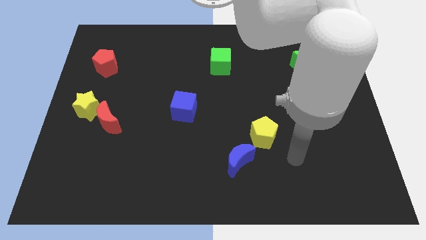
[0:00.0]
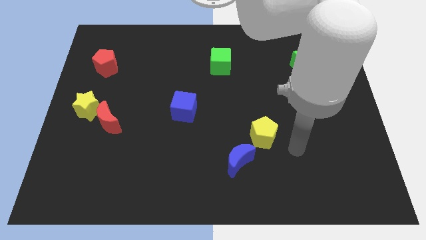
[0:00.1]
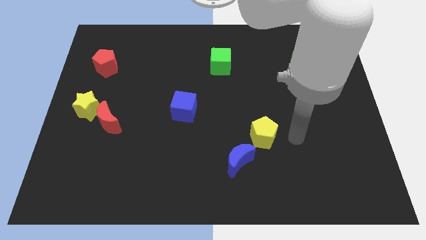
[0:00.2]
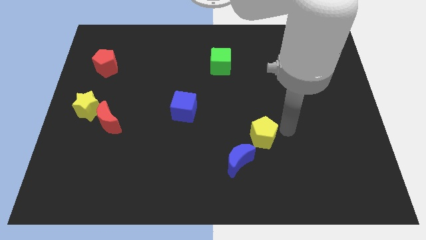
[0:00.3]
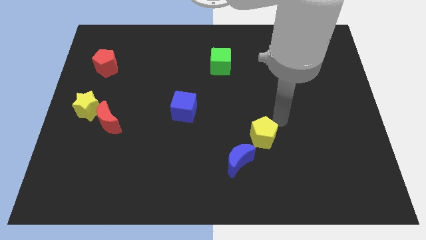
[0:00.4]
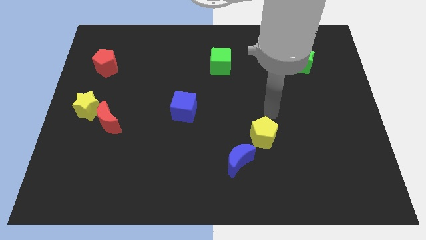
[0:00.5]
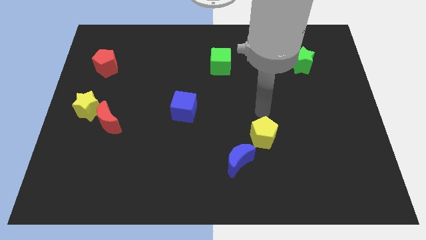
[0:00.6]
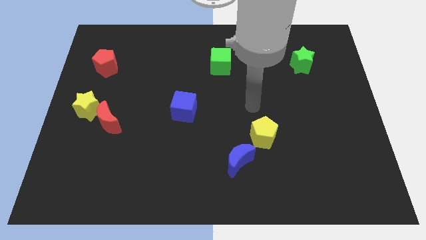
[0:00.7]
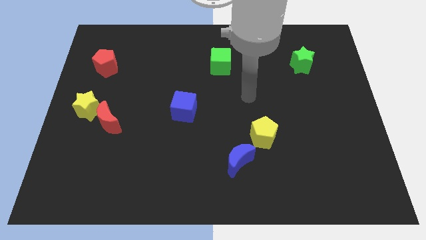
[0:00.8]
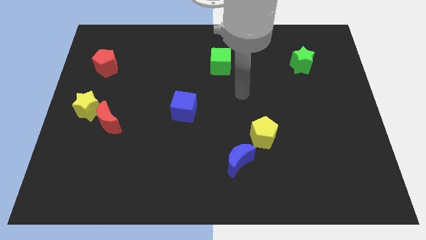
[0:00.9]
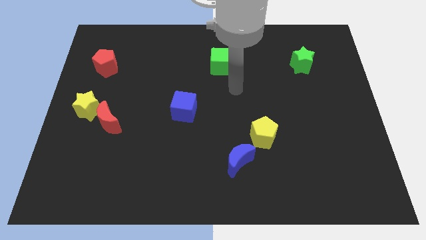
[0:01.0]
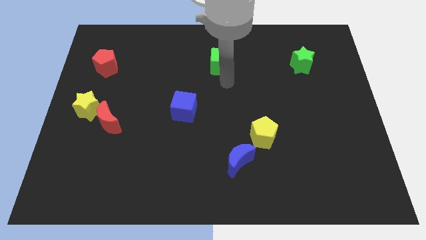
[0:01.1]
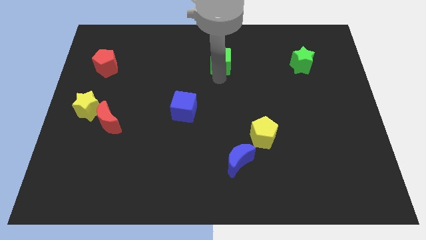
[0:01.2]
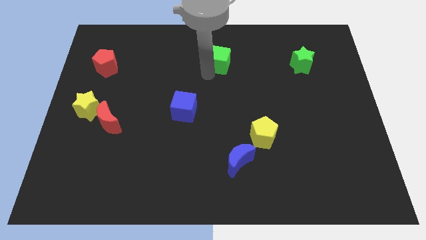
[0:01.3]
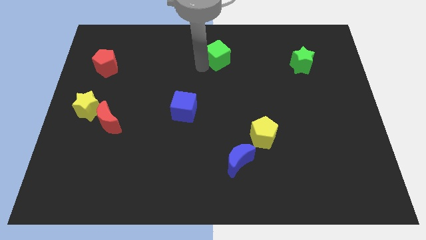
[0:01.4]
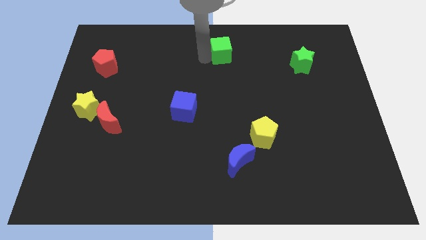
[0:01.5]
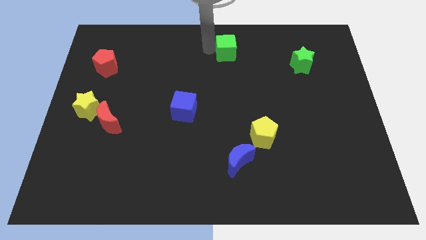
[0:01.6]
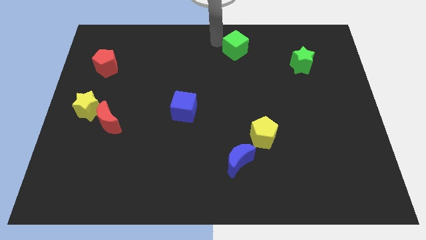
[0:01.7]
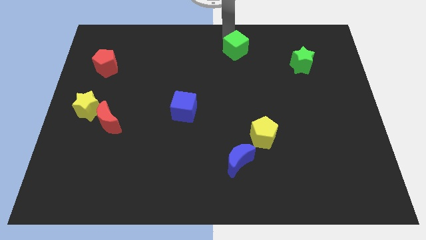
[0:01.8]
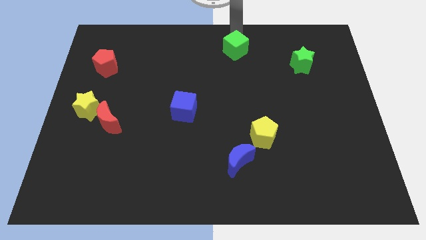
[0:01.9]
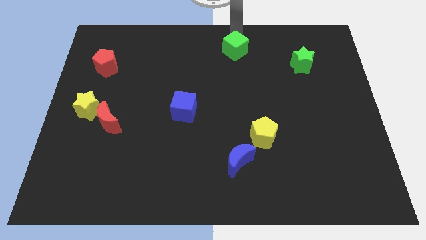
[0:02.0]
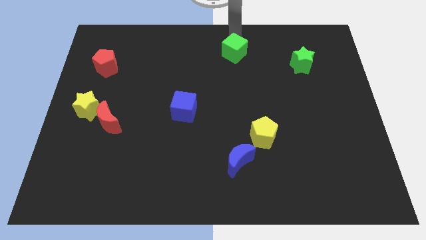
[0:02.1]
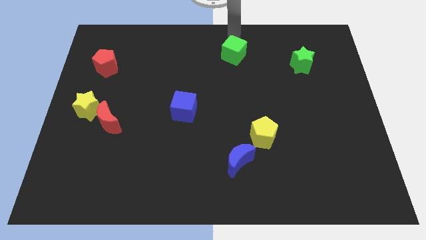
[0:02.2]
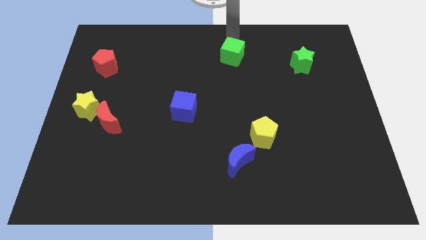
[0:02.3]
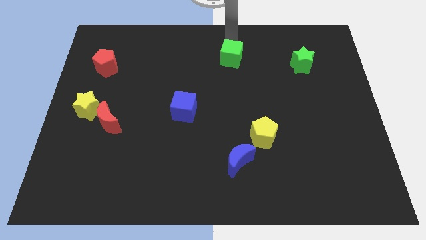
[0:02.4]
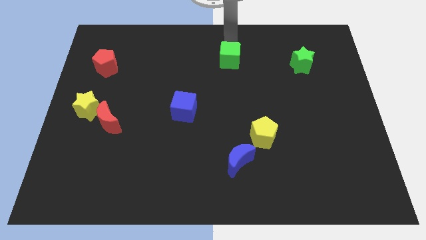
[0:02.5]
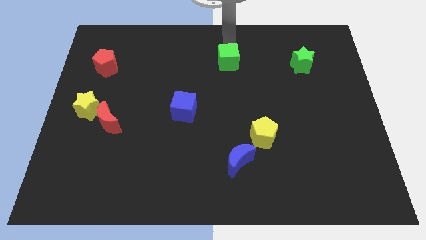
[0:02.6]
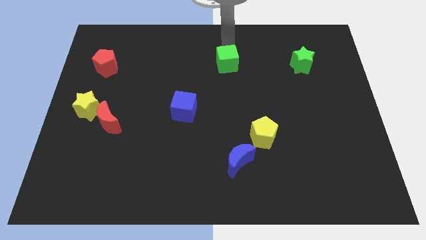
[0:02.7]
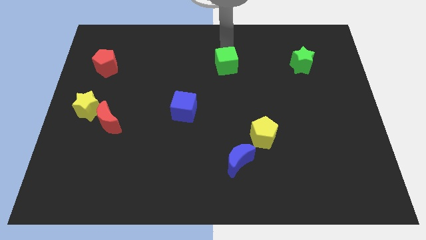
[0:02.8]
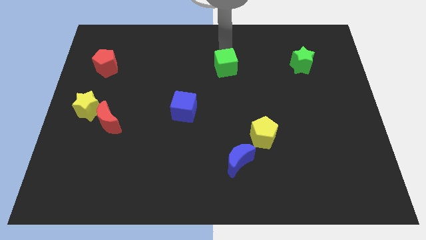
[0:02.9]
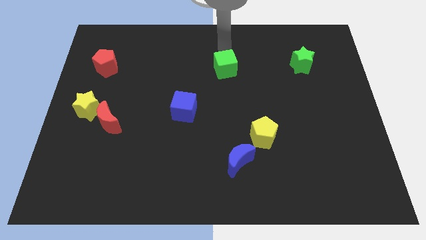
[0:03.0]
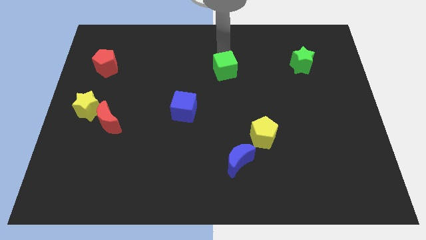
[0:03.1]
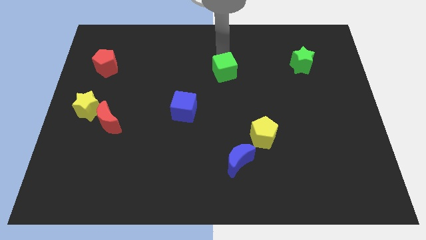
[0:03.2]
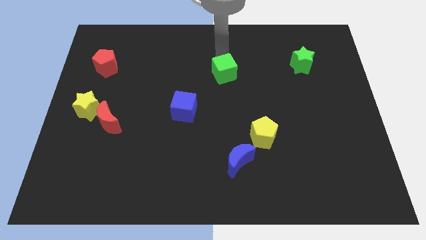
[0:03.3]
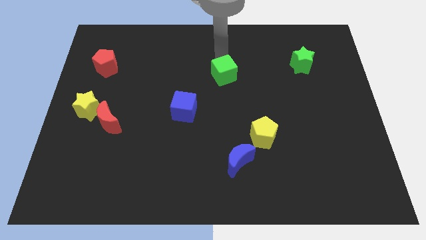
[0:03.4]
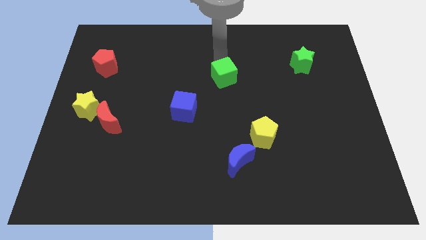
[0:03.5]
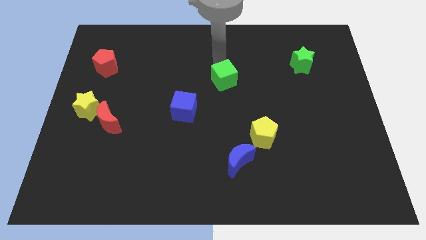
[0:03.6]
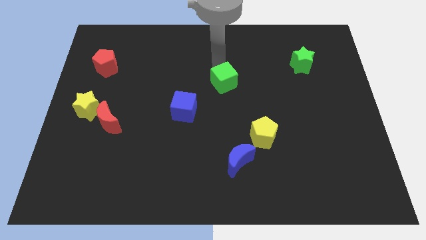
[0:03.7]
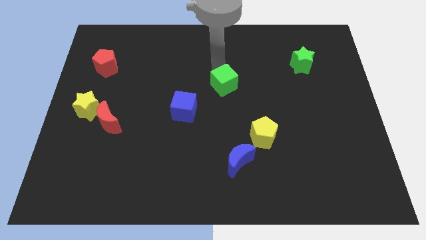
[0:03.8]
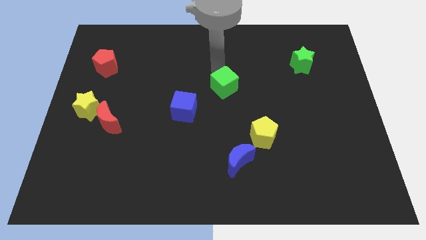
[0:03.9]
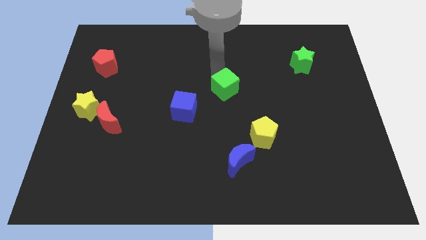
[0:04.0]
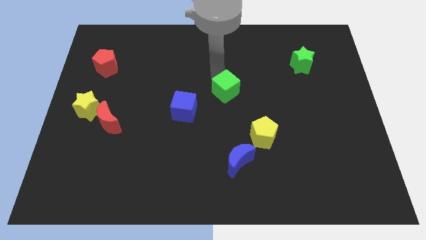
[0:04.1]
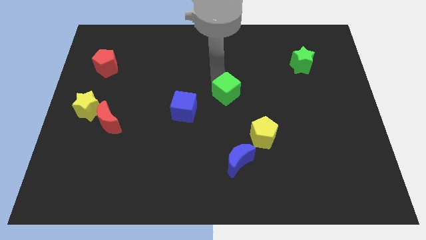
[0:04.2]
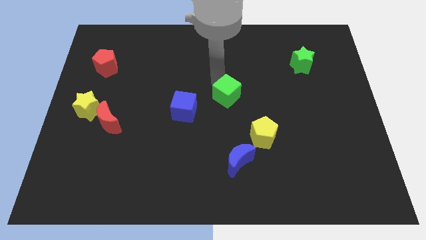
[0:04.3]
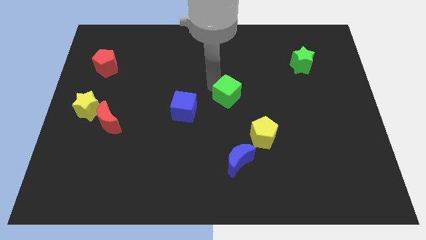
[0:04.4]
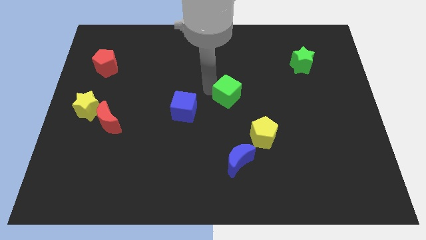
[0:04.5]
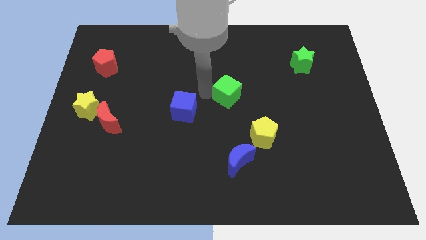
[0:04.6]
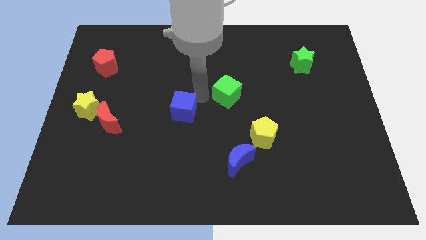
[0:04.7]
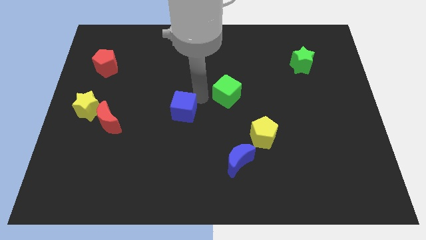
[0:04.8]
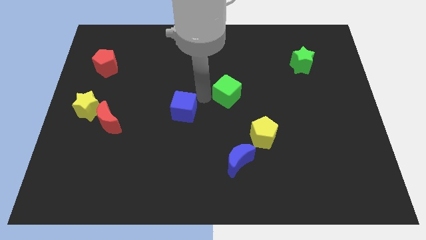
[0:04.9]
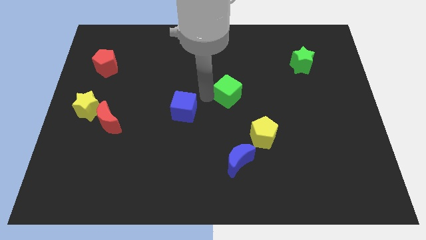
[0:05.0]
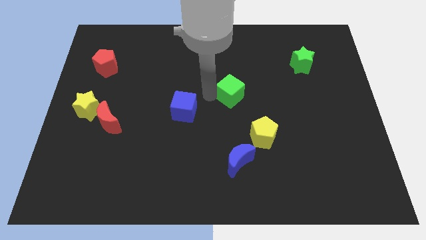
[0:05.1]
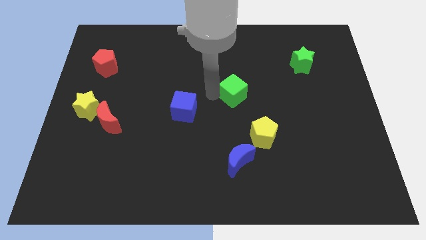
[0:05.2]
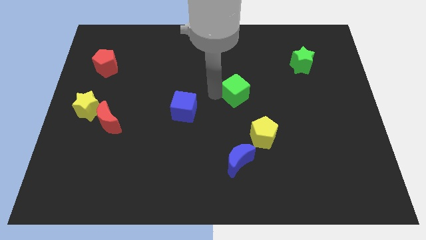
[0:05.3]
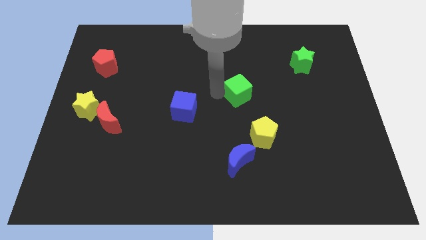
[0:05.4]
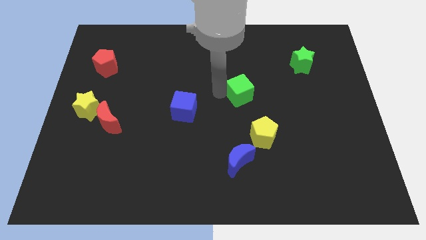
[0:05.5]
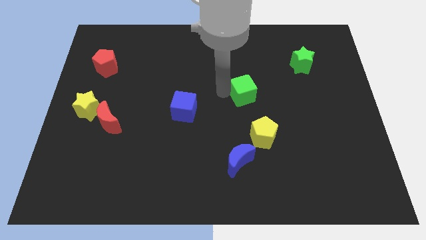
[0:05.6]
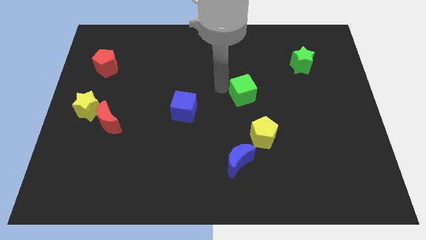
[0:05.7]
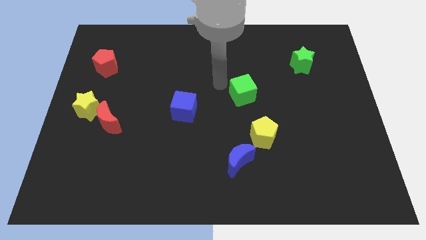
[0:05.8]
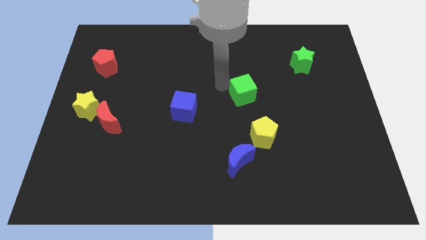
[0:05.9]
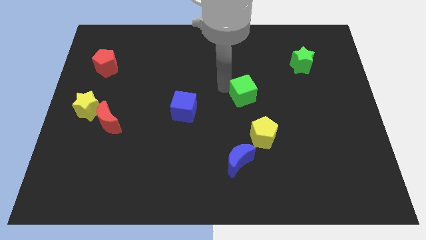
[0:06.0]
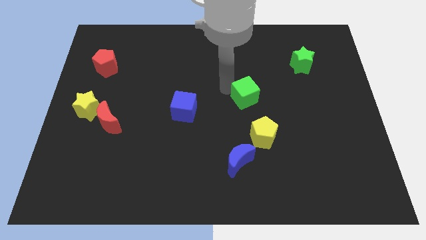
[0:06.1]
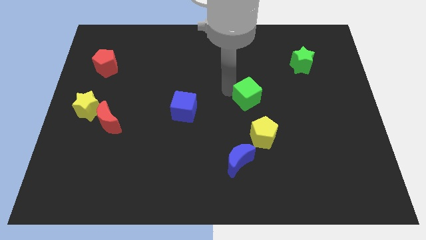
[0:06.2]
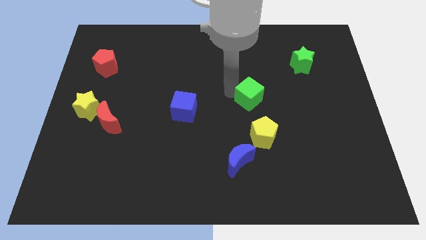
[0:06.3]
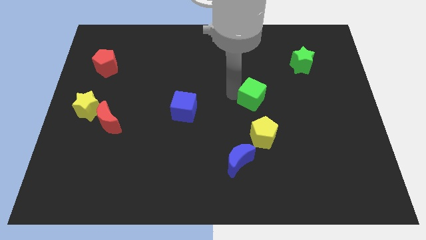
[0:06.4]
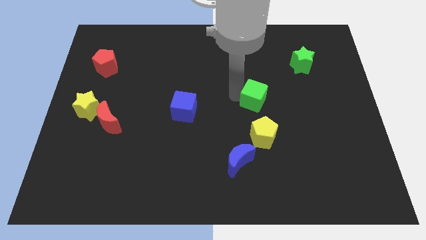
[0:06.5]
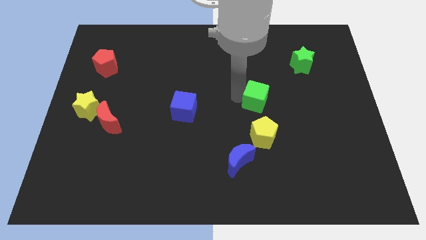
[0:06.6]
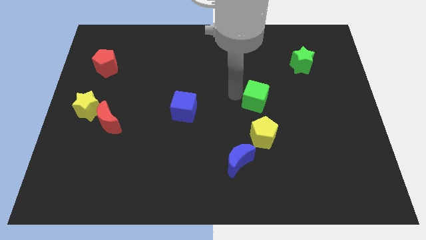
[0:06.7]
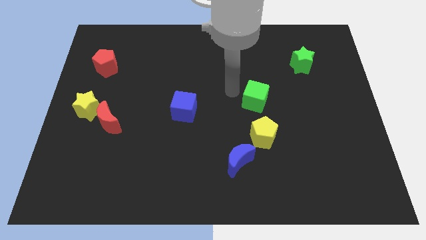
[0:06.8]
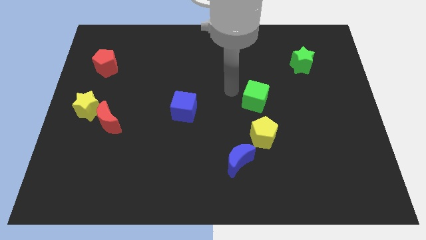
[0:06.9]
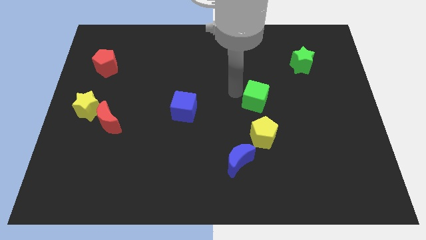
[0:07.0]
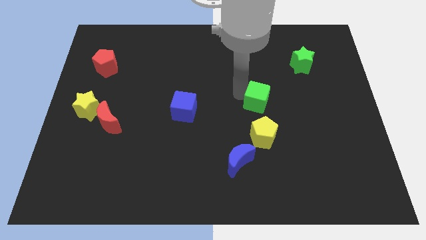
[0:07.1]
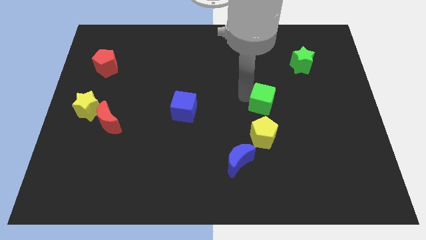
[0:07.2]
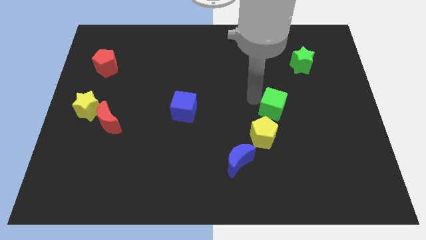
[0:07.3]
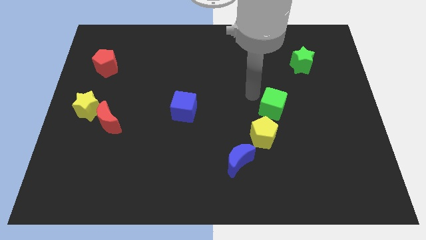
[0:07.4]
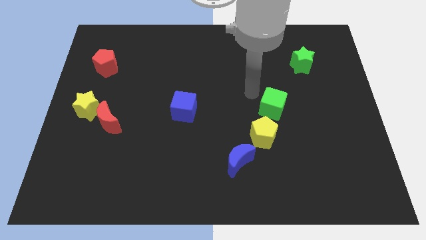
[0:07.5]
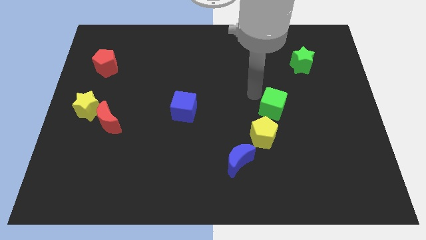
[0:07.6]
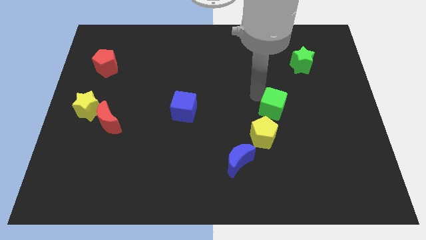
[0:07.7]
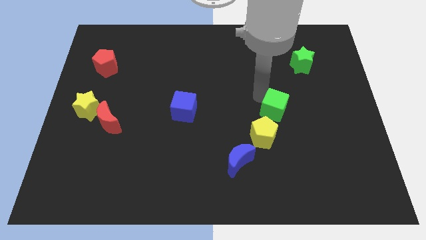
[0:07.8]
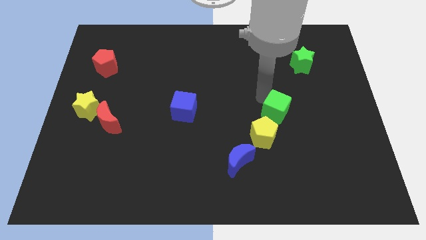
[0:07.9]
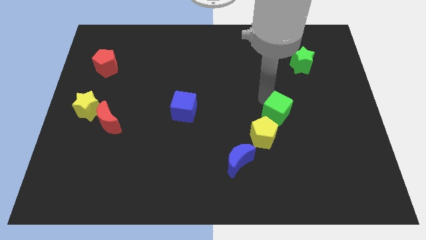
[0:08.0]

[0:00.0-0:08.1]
slide the green cube downwards and then to the right
